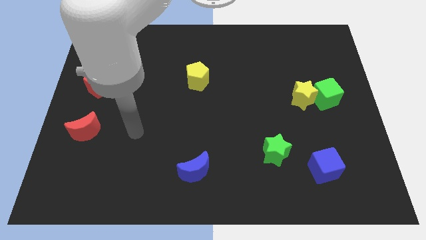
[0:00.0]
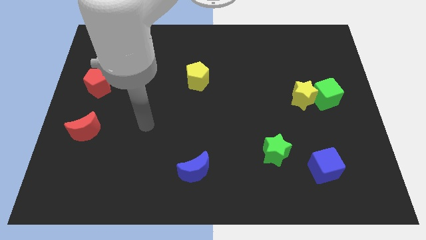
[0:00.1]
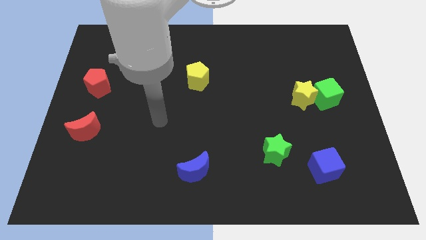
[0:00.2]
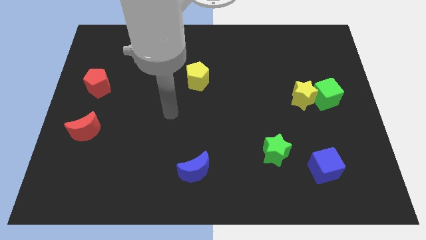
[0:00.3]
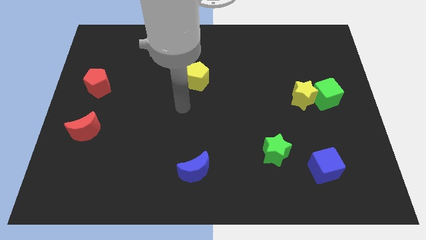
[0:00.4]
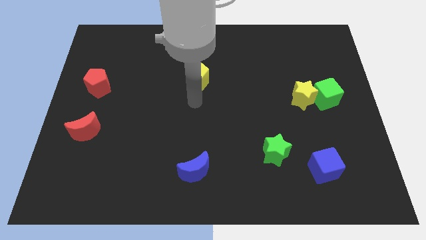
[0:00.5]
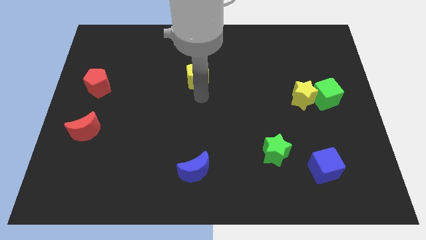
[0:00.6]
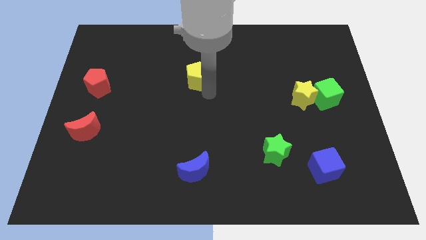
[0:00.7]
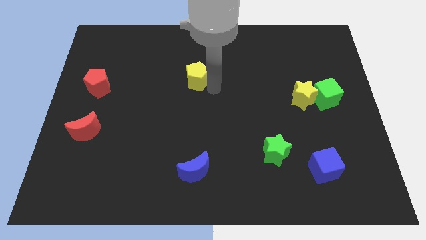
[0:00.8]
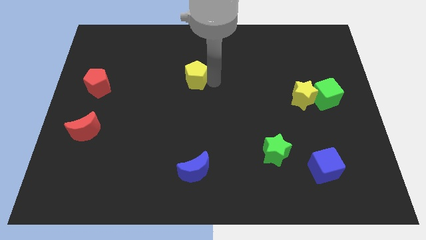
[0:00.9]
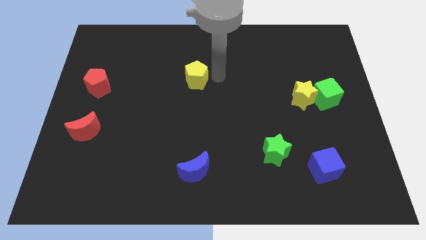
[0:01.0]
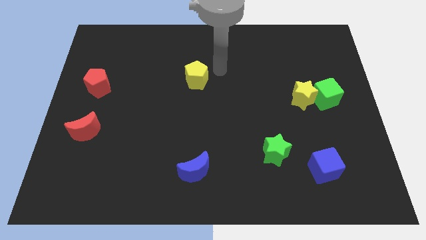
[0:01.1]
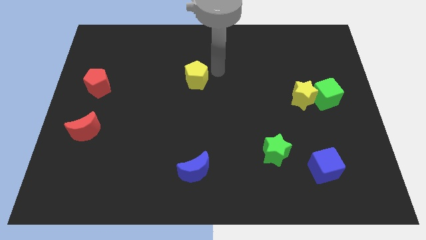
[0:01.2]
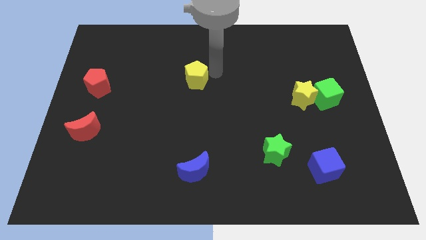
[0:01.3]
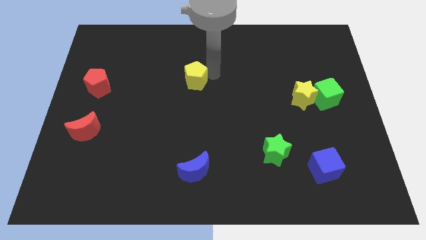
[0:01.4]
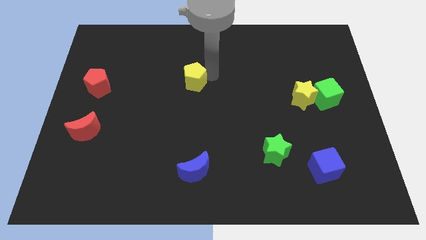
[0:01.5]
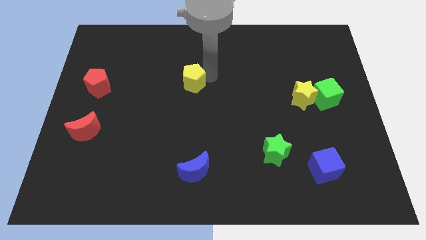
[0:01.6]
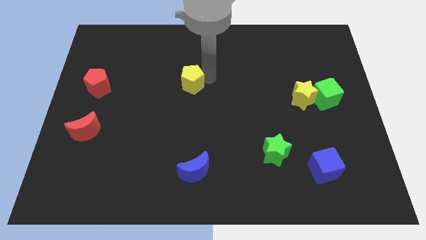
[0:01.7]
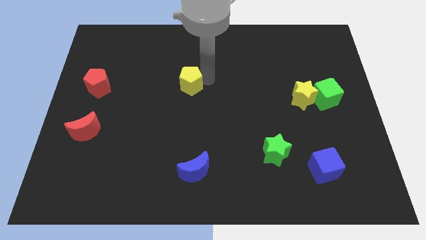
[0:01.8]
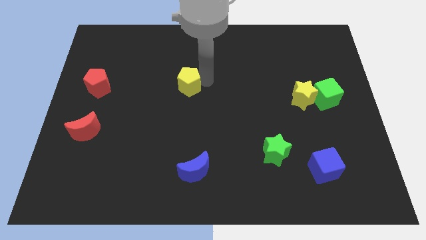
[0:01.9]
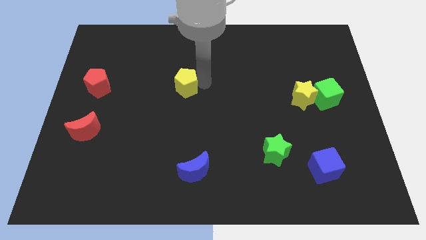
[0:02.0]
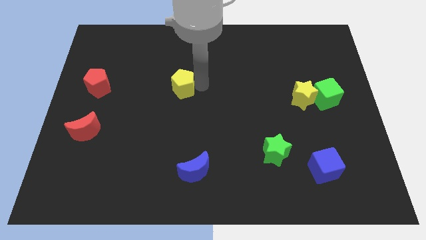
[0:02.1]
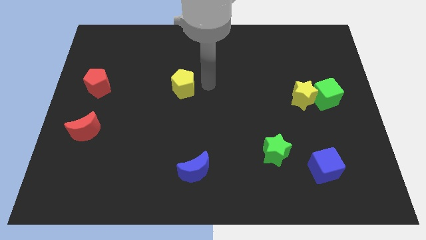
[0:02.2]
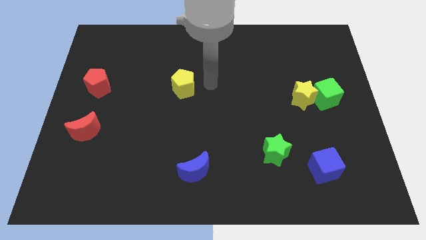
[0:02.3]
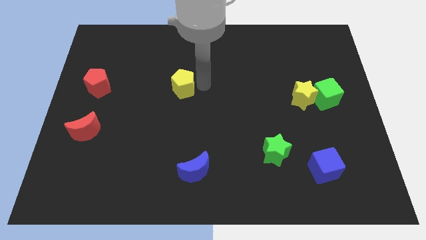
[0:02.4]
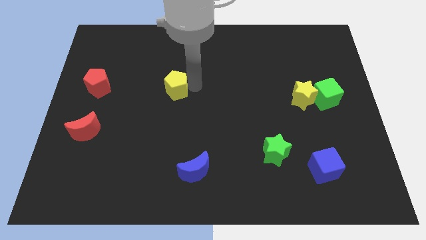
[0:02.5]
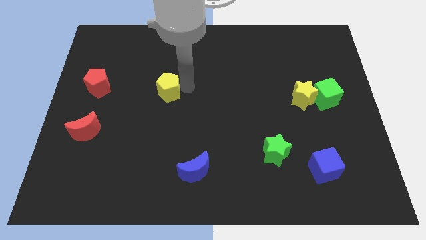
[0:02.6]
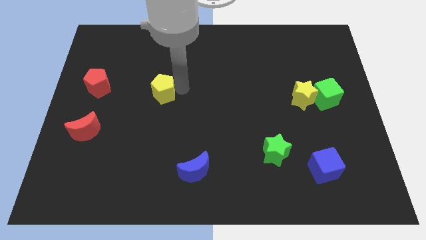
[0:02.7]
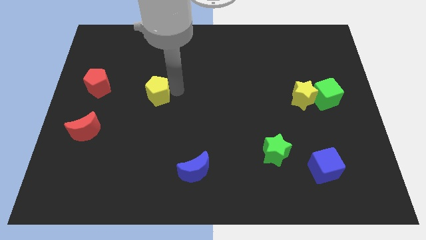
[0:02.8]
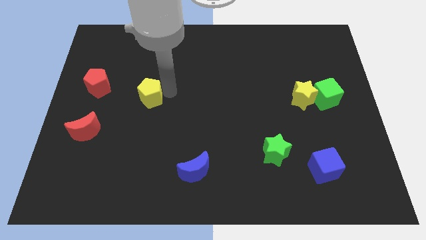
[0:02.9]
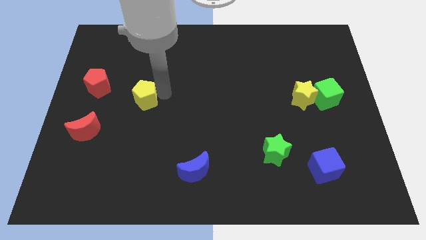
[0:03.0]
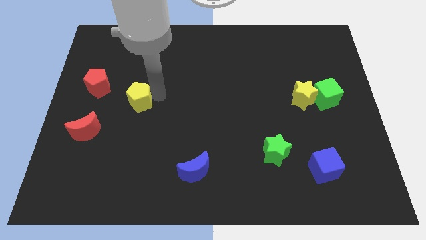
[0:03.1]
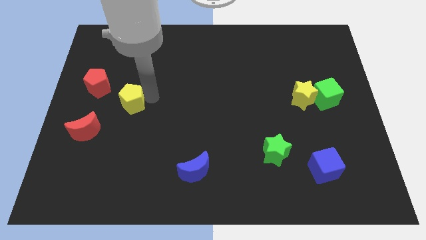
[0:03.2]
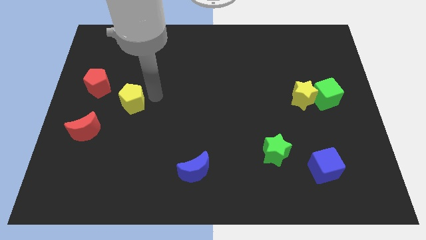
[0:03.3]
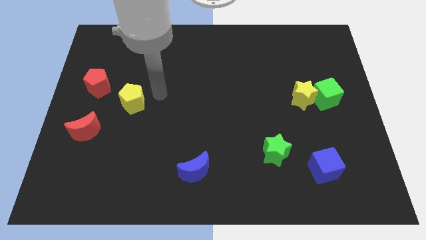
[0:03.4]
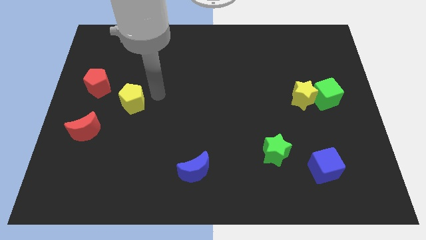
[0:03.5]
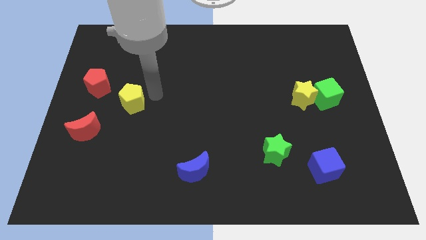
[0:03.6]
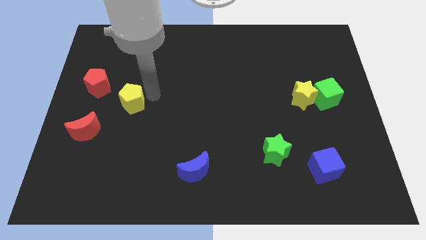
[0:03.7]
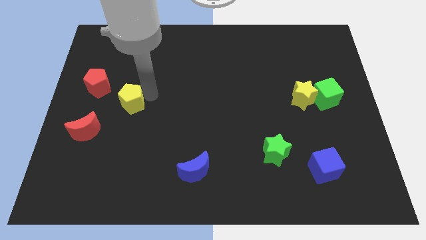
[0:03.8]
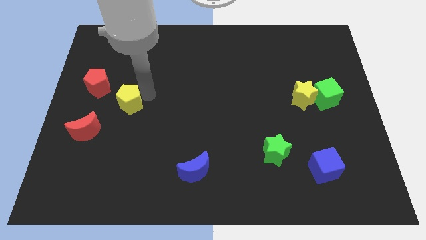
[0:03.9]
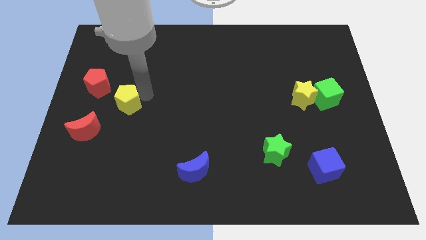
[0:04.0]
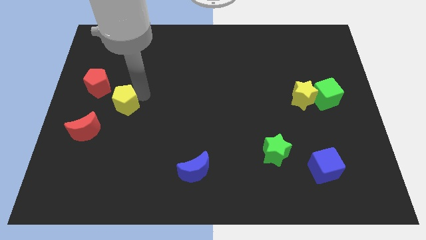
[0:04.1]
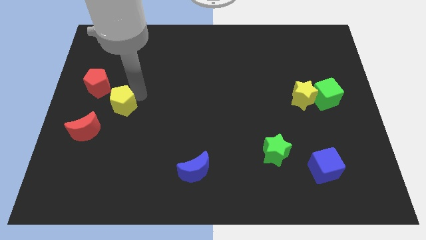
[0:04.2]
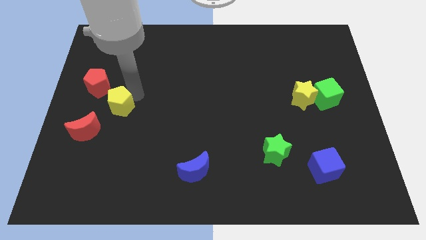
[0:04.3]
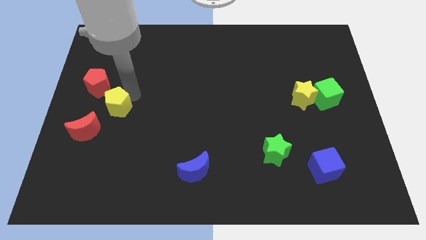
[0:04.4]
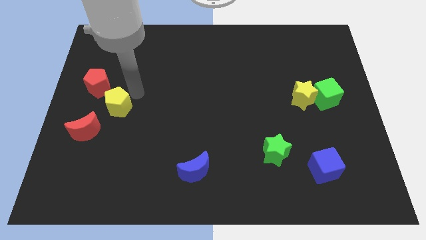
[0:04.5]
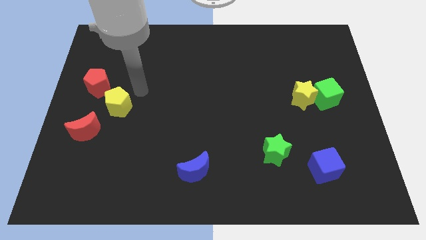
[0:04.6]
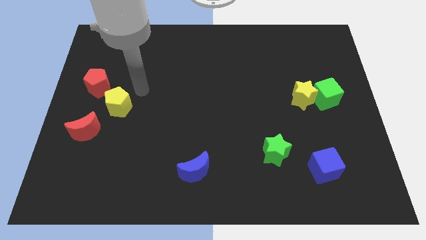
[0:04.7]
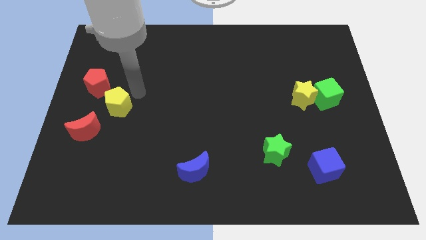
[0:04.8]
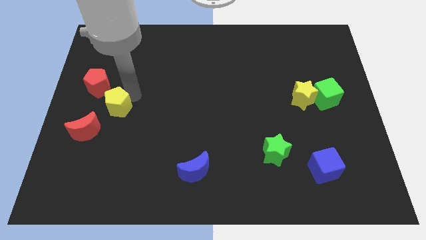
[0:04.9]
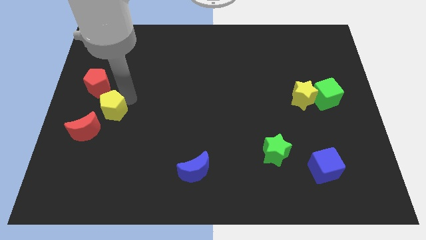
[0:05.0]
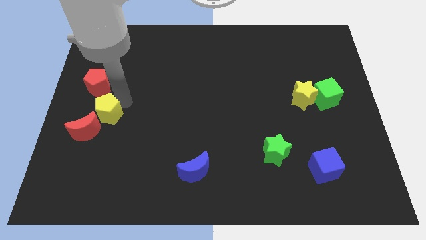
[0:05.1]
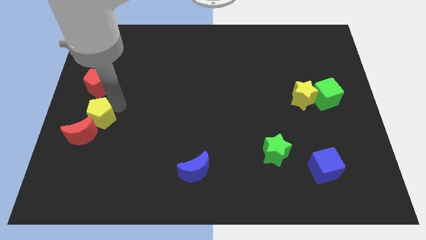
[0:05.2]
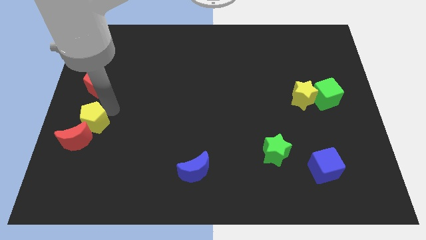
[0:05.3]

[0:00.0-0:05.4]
push the yellow pentagon close to the red moon

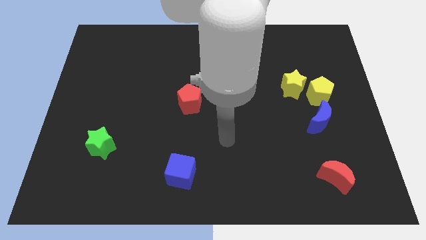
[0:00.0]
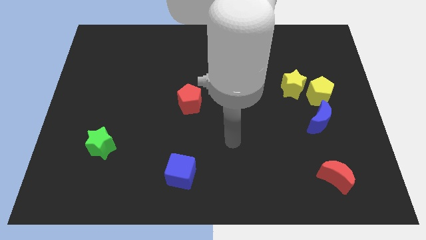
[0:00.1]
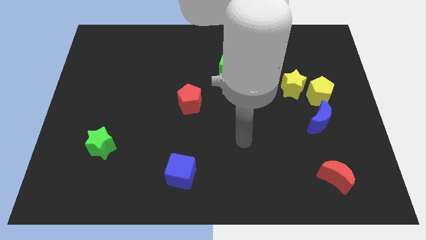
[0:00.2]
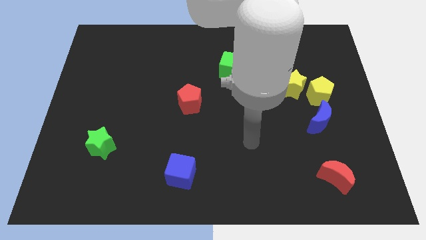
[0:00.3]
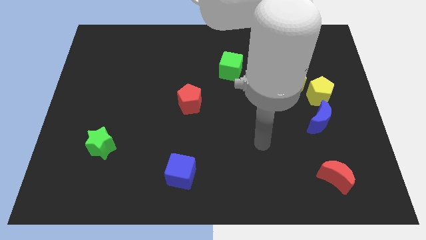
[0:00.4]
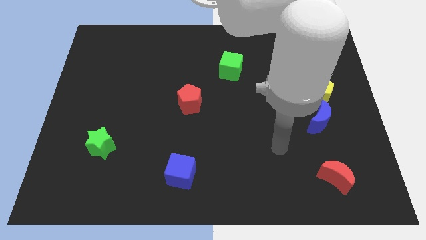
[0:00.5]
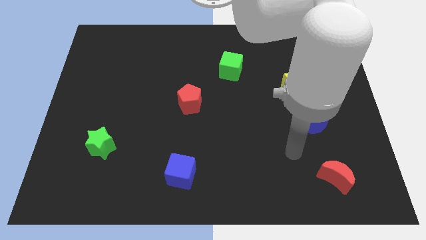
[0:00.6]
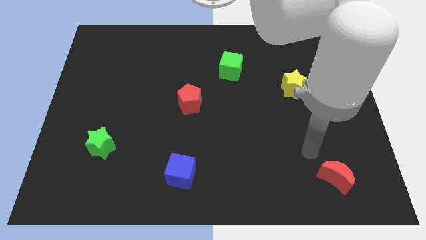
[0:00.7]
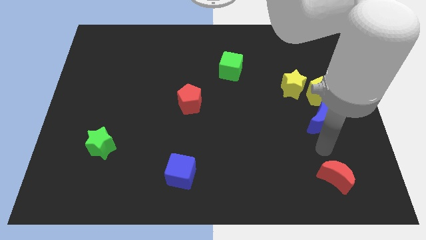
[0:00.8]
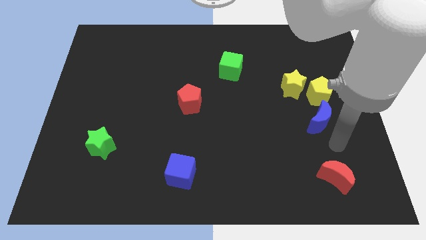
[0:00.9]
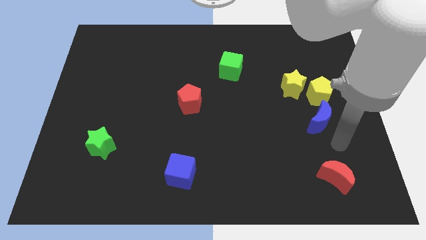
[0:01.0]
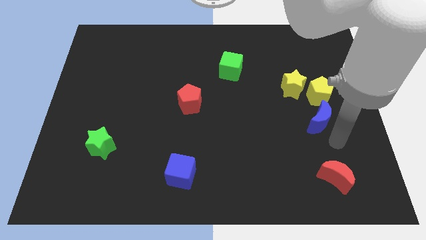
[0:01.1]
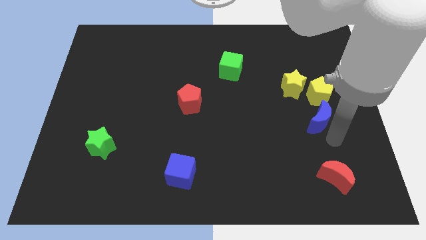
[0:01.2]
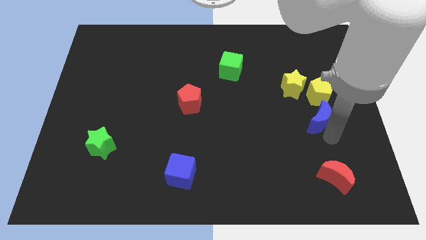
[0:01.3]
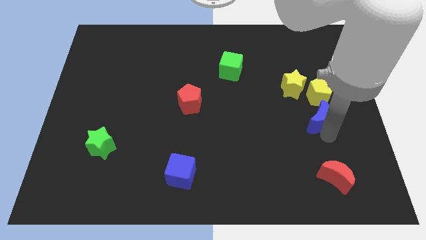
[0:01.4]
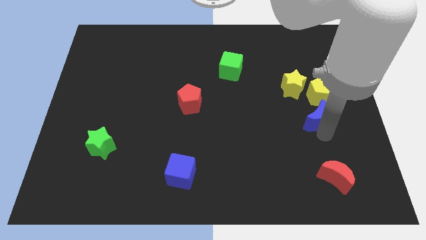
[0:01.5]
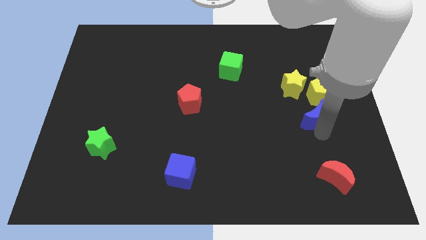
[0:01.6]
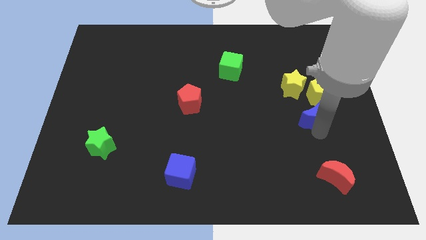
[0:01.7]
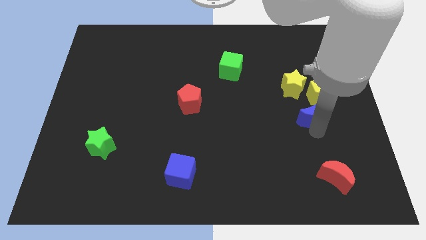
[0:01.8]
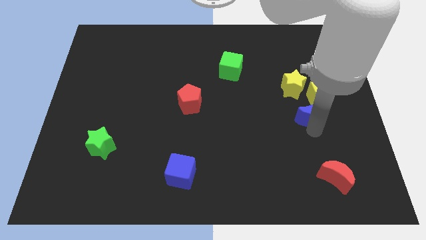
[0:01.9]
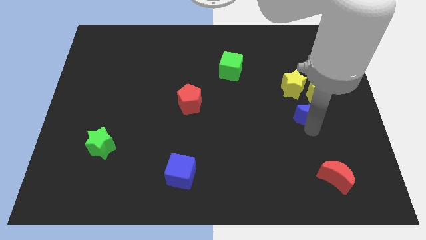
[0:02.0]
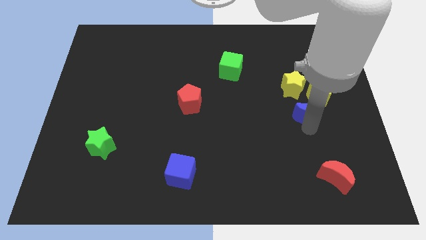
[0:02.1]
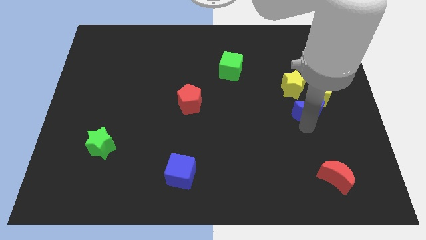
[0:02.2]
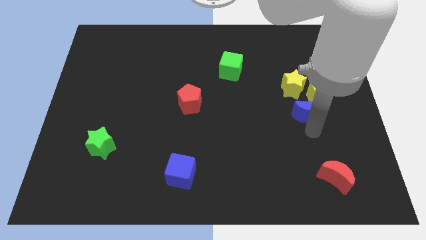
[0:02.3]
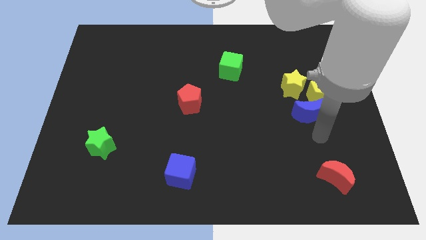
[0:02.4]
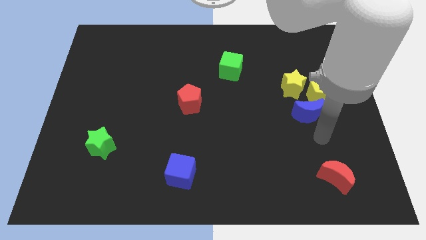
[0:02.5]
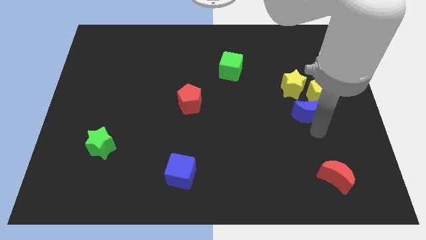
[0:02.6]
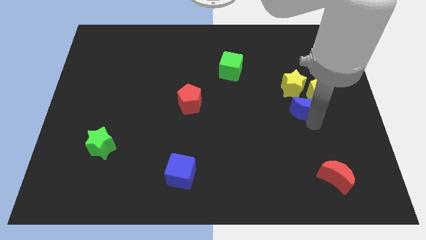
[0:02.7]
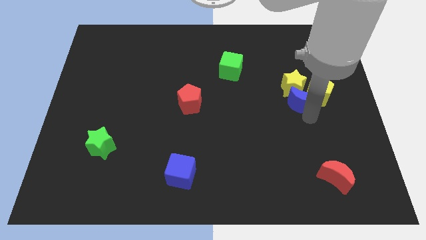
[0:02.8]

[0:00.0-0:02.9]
move the blue moon next to the yellow star
